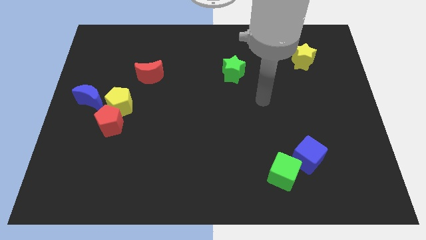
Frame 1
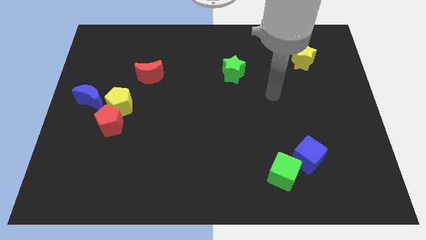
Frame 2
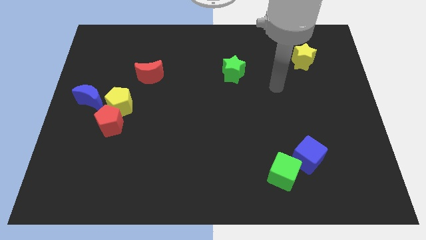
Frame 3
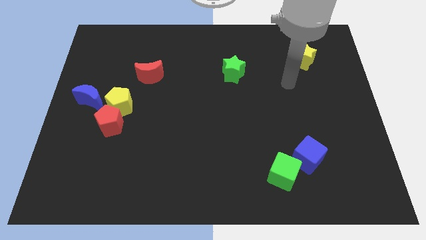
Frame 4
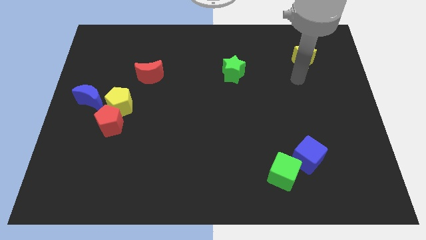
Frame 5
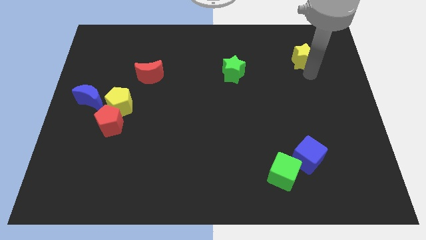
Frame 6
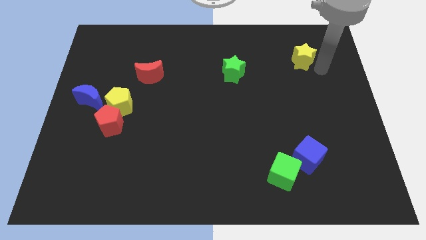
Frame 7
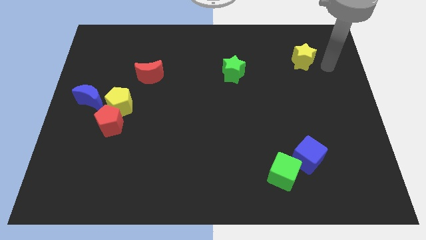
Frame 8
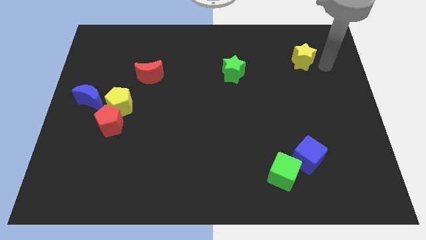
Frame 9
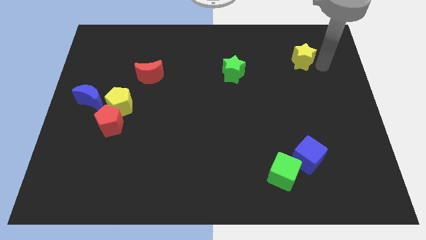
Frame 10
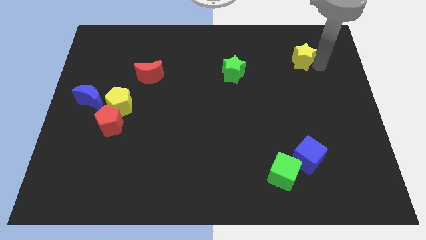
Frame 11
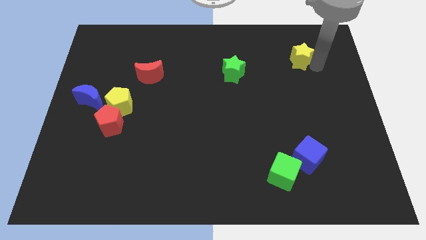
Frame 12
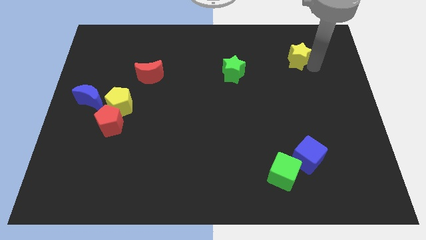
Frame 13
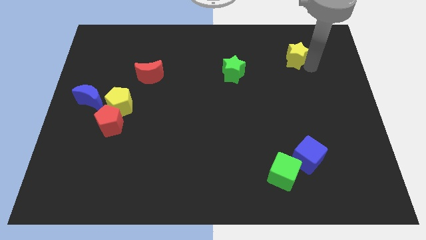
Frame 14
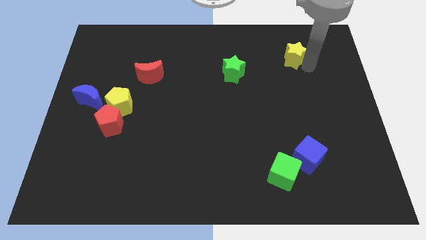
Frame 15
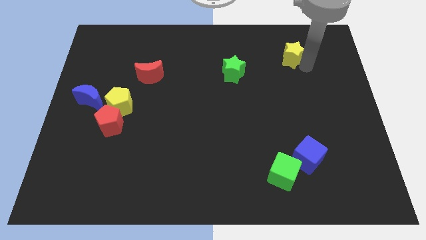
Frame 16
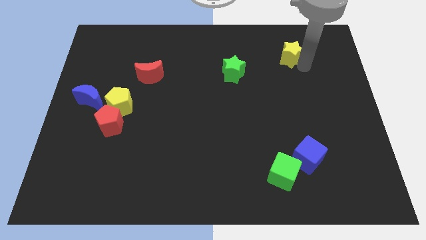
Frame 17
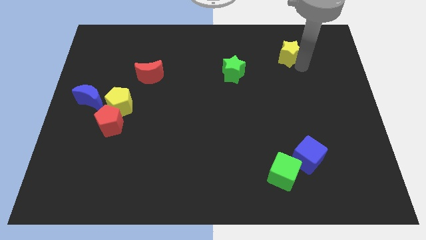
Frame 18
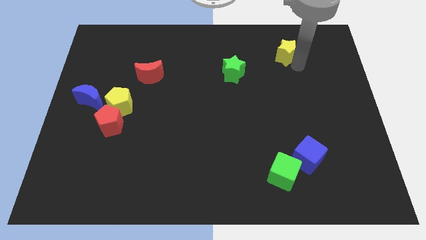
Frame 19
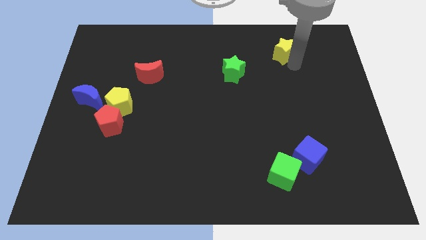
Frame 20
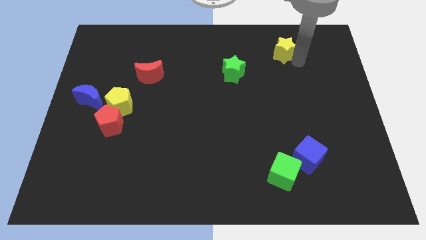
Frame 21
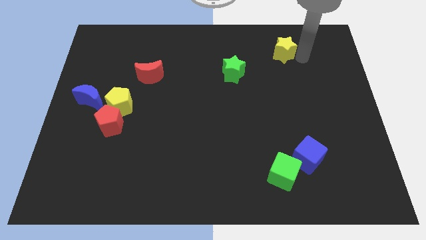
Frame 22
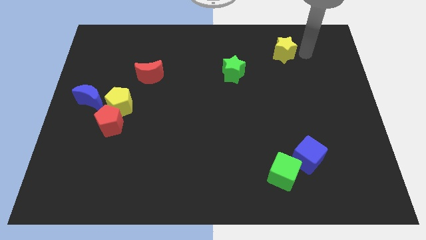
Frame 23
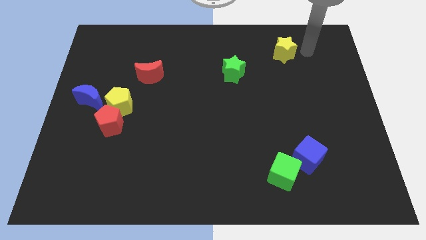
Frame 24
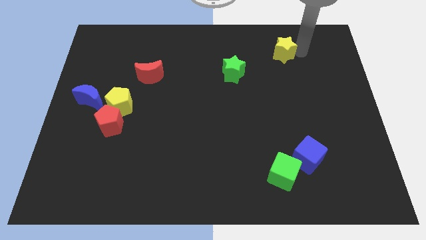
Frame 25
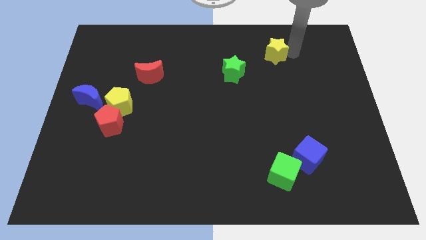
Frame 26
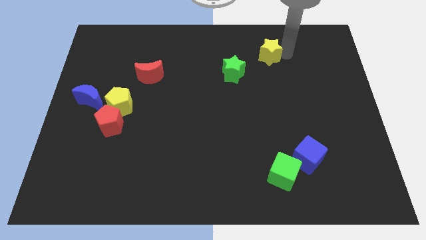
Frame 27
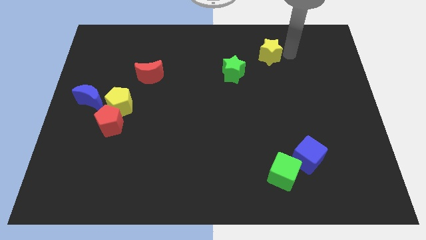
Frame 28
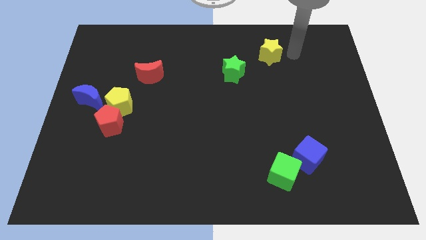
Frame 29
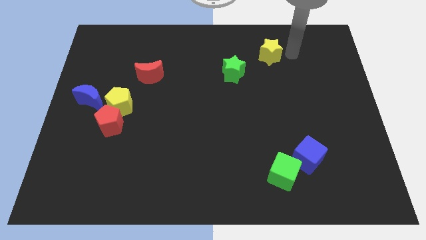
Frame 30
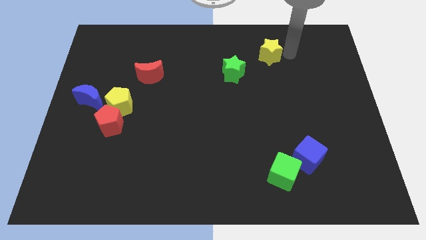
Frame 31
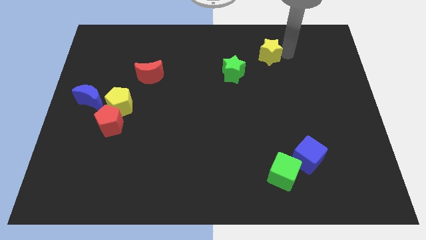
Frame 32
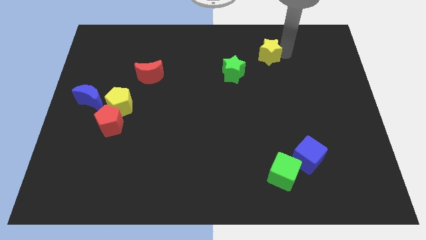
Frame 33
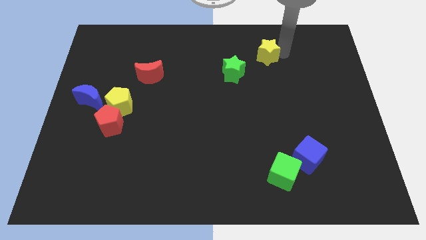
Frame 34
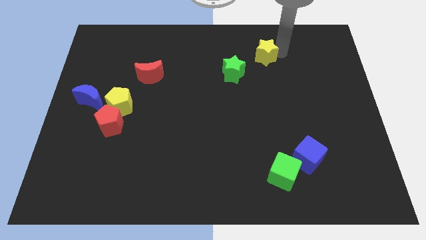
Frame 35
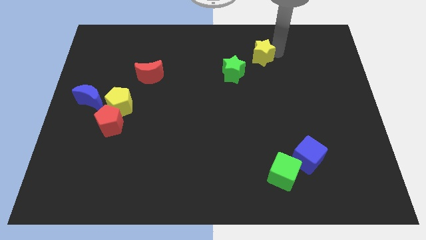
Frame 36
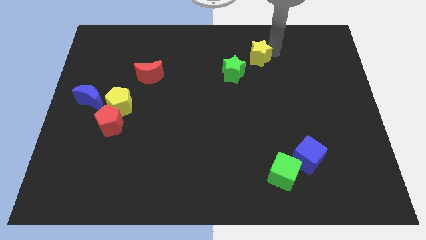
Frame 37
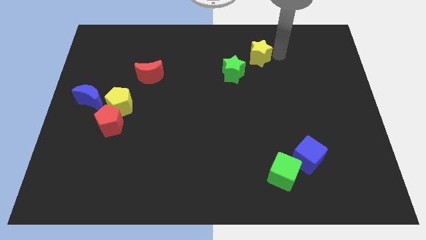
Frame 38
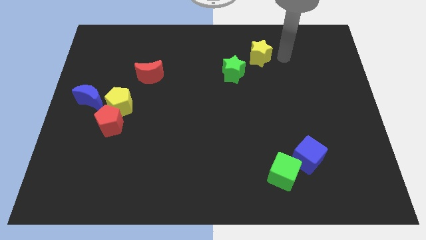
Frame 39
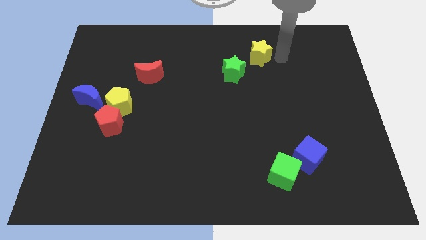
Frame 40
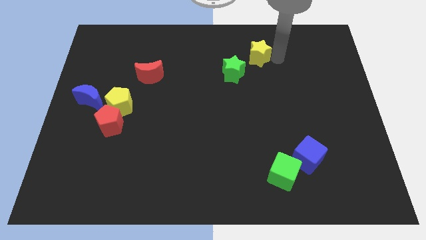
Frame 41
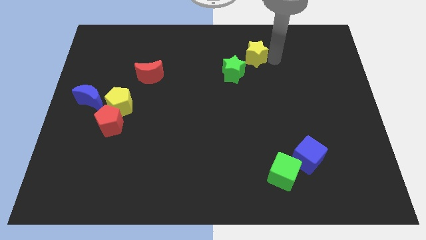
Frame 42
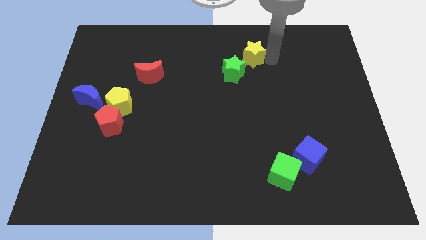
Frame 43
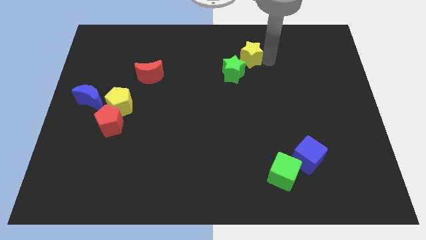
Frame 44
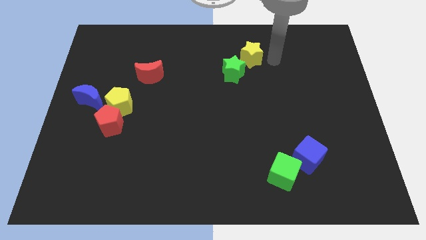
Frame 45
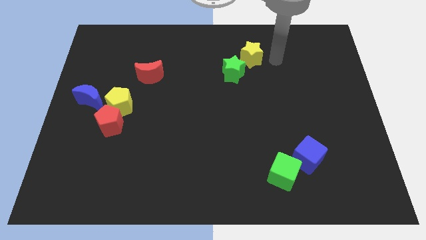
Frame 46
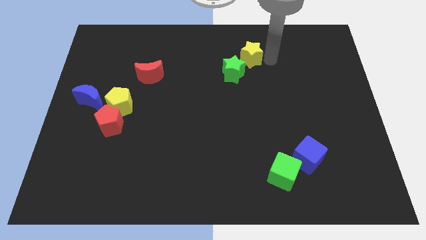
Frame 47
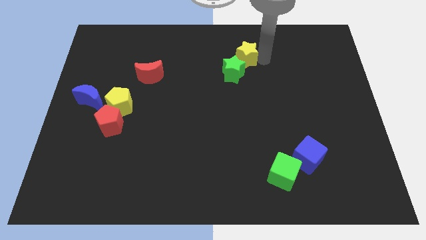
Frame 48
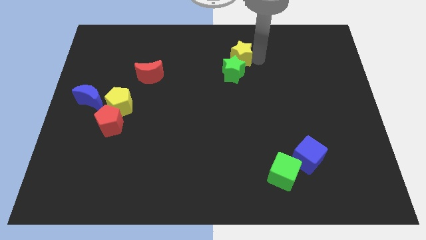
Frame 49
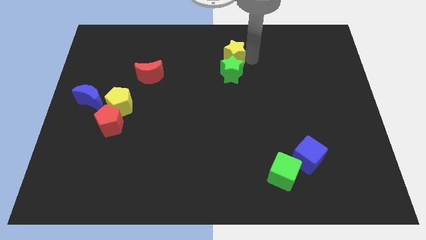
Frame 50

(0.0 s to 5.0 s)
push the yellow star diagonally up and to the left of the green star

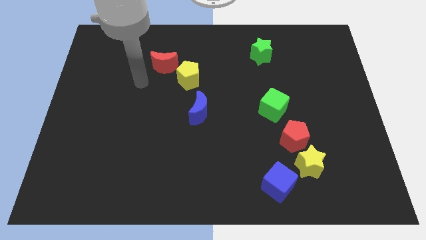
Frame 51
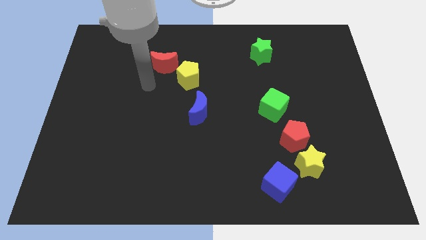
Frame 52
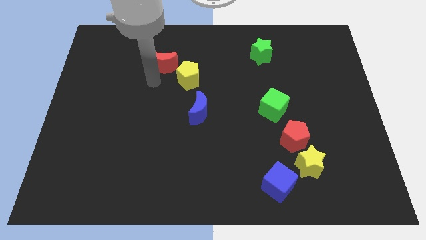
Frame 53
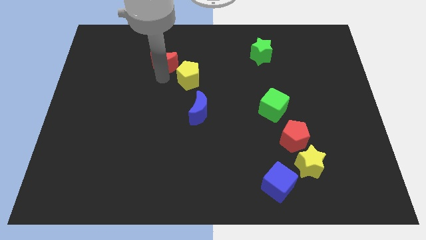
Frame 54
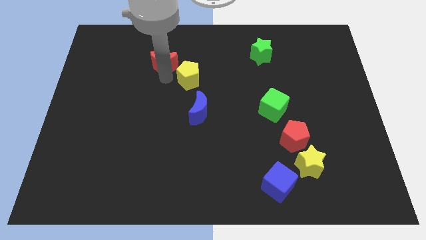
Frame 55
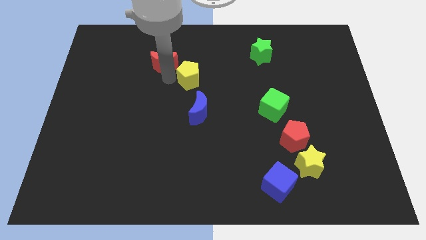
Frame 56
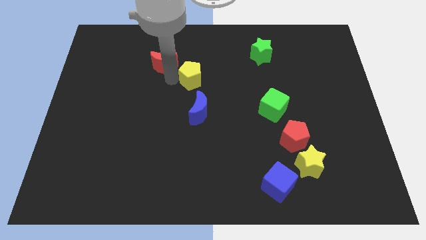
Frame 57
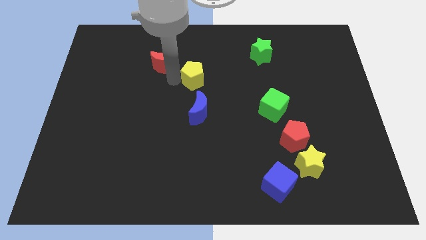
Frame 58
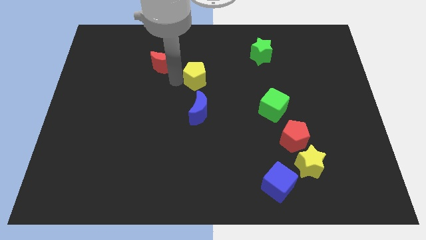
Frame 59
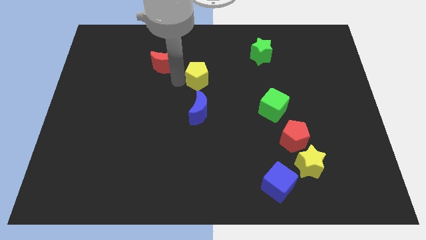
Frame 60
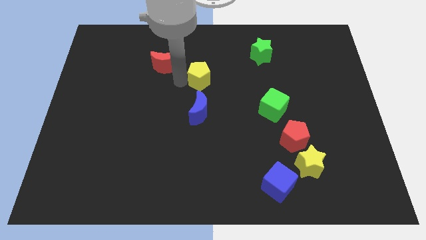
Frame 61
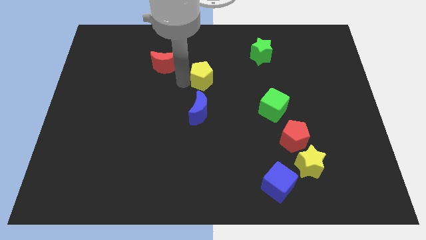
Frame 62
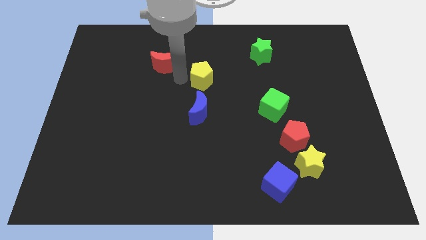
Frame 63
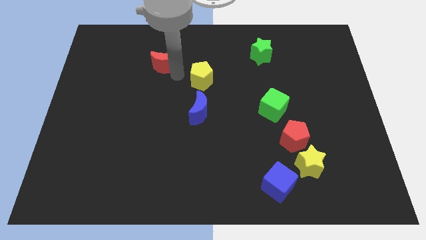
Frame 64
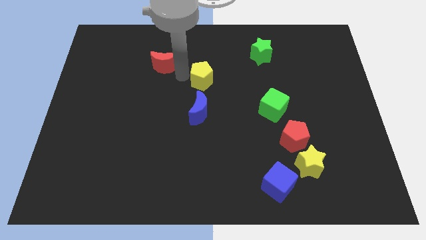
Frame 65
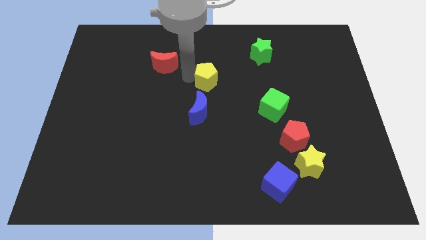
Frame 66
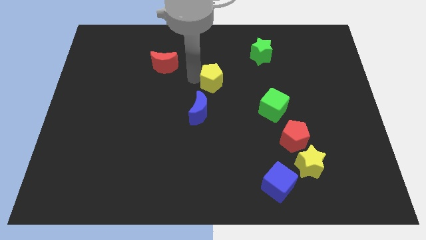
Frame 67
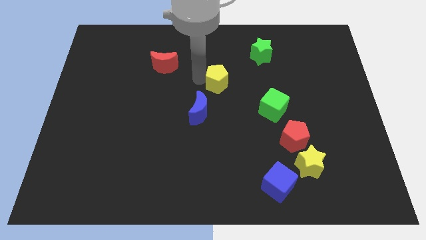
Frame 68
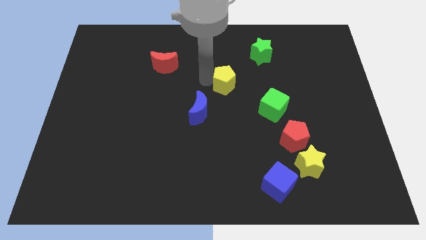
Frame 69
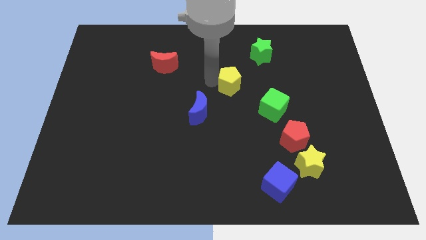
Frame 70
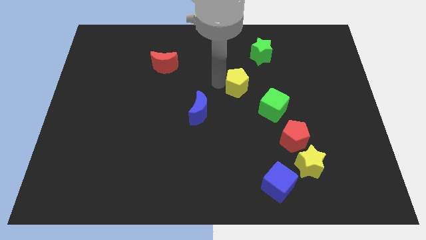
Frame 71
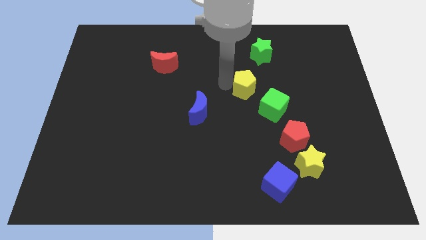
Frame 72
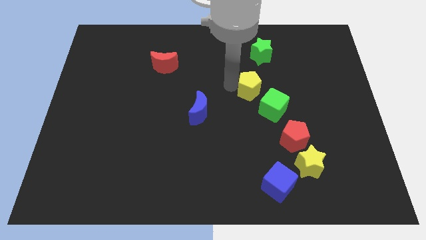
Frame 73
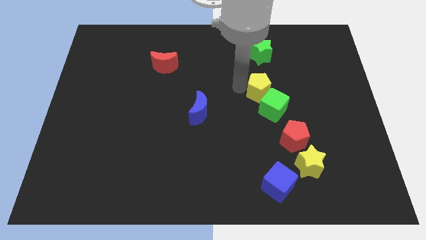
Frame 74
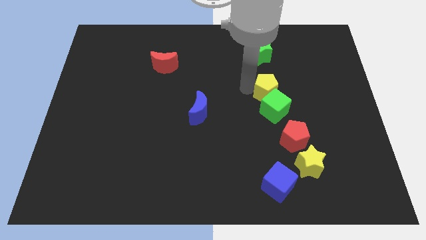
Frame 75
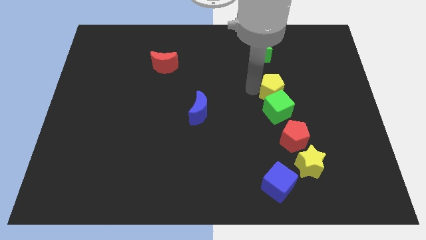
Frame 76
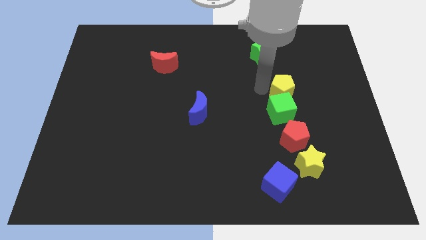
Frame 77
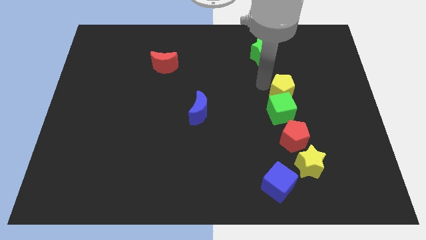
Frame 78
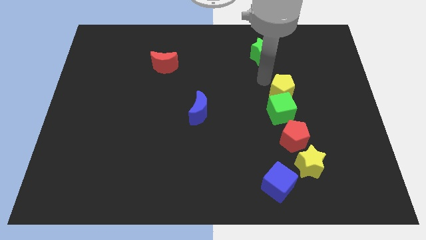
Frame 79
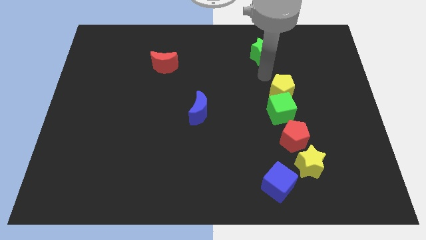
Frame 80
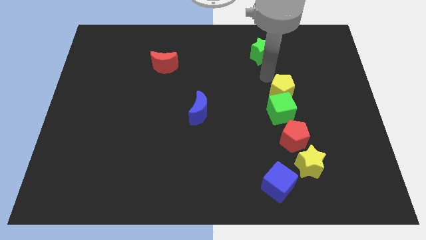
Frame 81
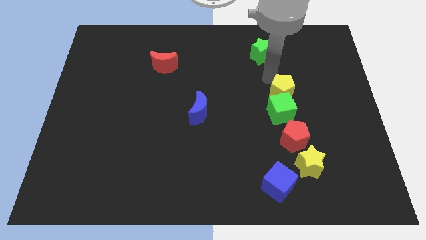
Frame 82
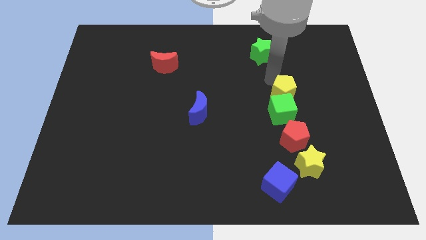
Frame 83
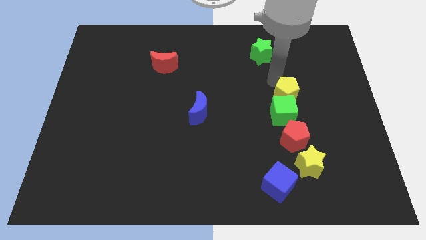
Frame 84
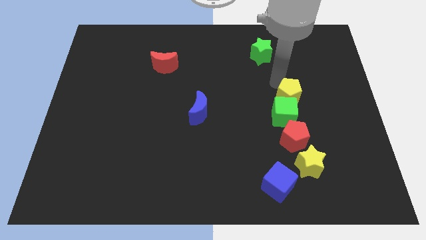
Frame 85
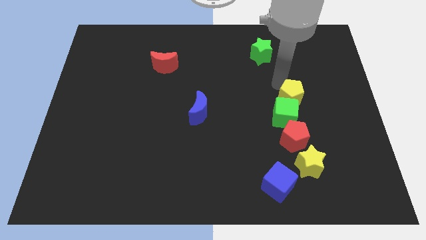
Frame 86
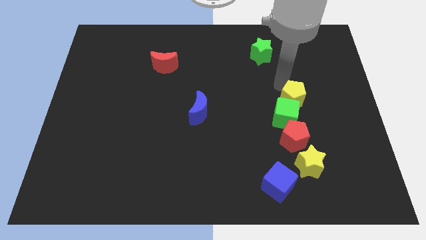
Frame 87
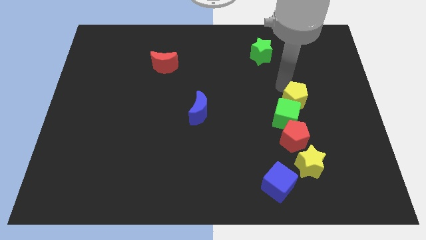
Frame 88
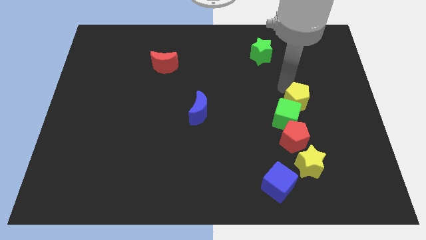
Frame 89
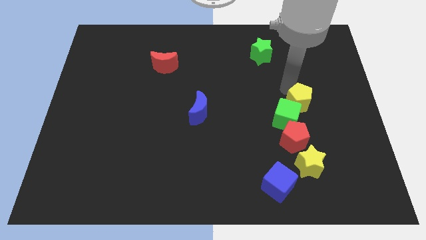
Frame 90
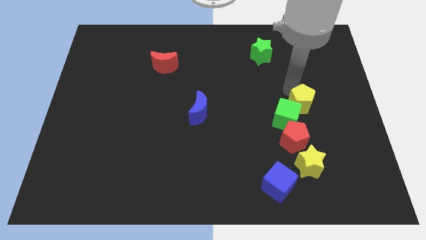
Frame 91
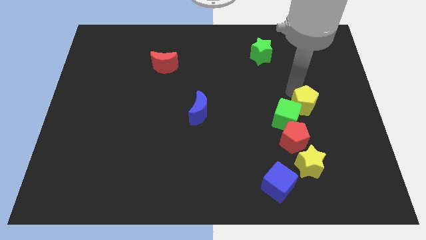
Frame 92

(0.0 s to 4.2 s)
slide the yellow pentagon to the top right side of the red pentagon
